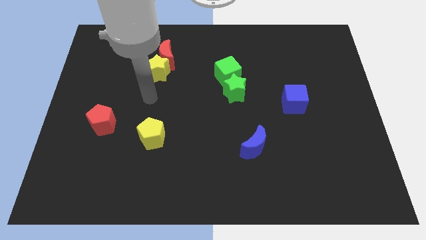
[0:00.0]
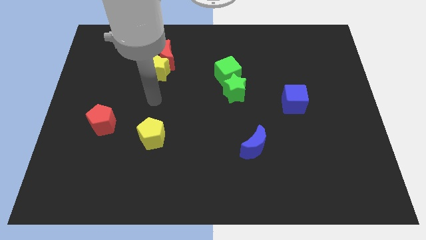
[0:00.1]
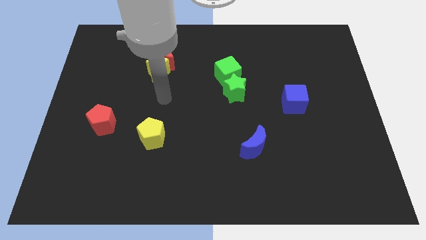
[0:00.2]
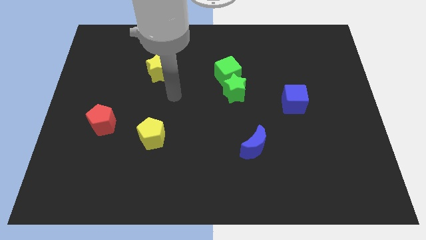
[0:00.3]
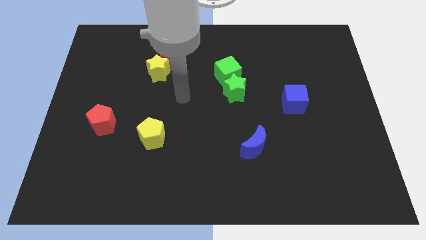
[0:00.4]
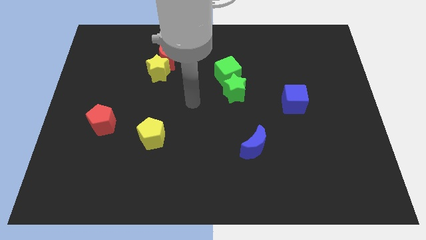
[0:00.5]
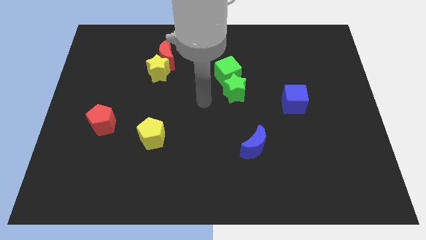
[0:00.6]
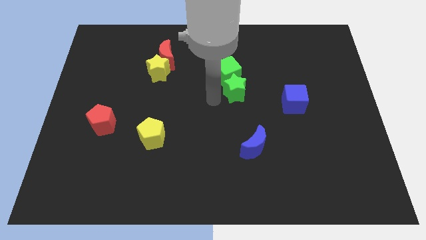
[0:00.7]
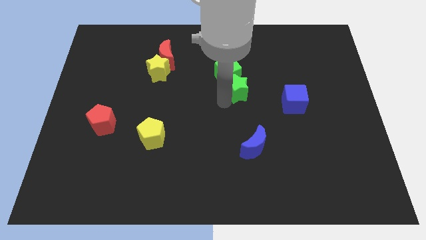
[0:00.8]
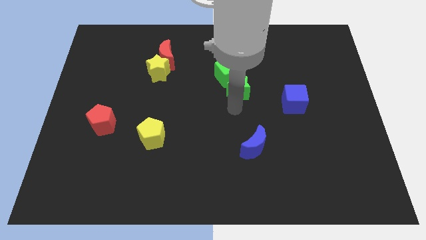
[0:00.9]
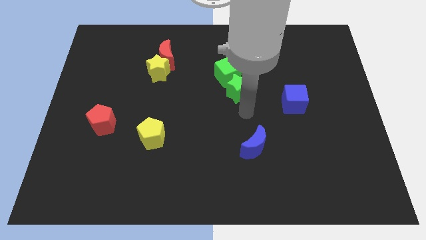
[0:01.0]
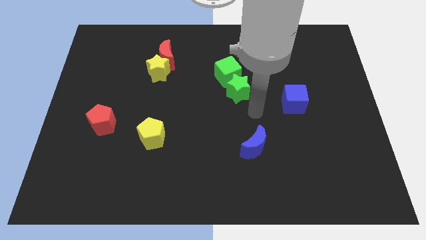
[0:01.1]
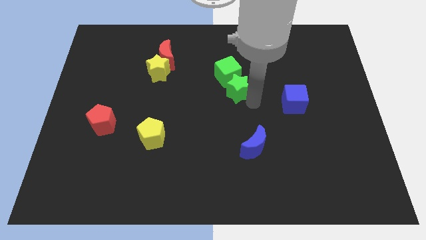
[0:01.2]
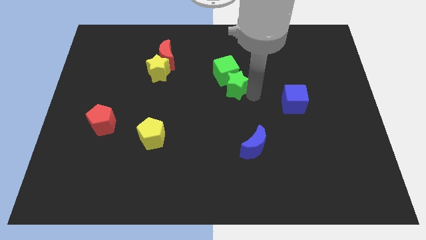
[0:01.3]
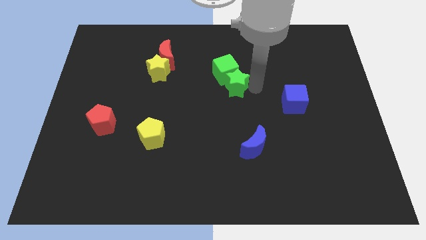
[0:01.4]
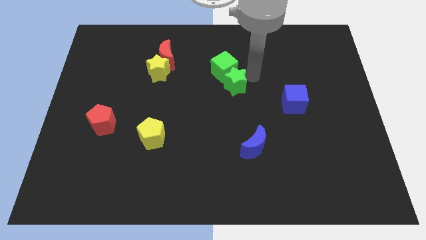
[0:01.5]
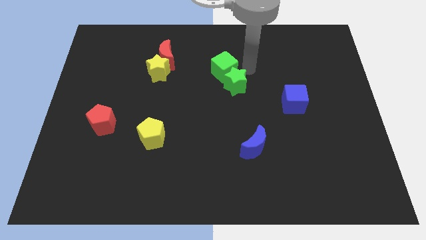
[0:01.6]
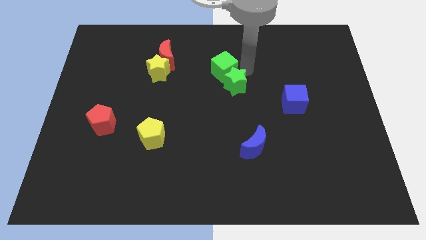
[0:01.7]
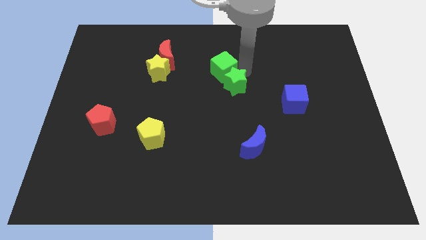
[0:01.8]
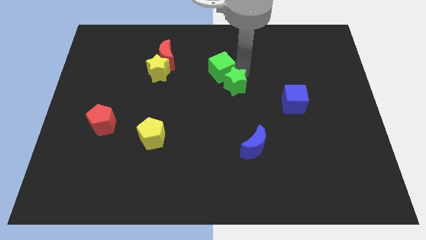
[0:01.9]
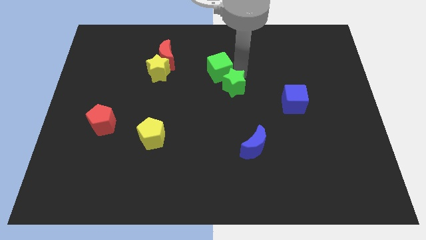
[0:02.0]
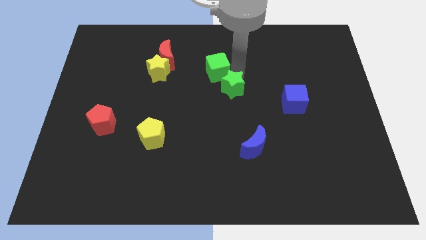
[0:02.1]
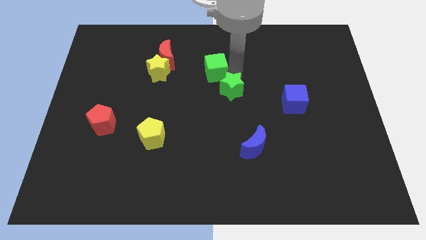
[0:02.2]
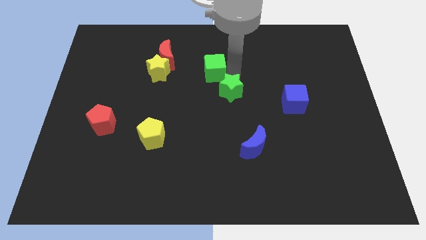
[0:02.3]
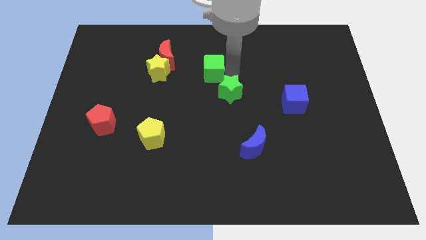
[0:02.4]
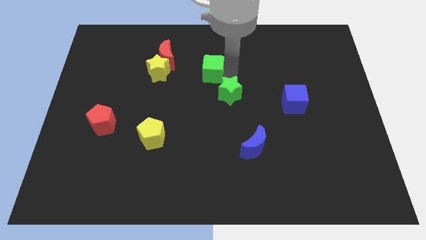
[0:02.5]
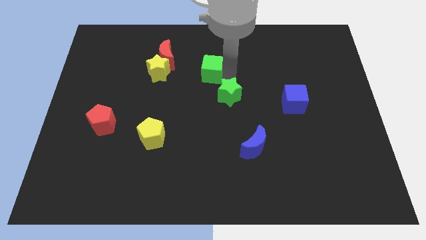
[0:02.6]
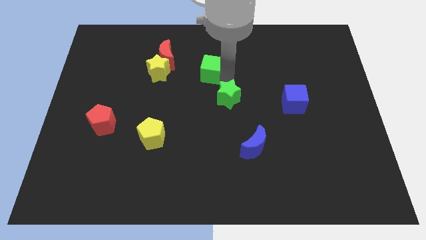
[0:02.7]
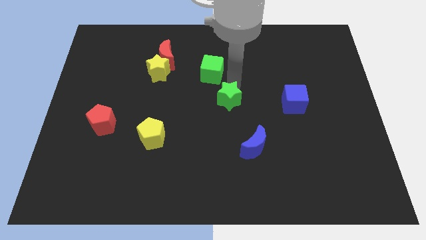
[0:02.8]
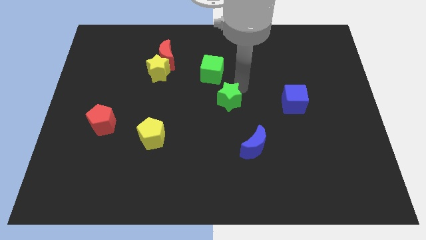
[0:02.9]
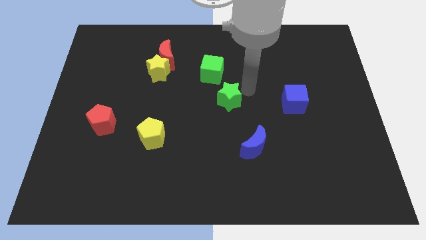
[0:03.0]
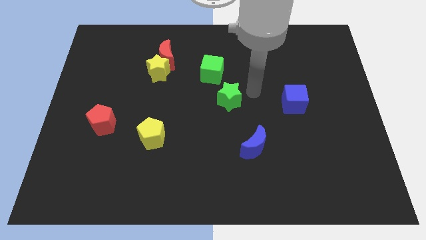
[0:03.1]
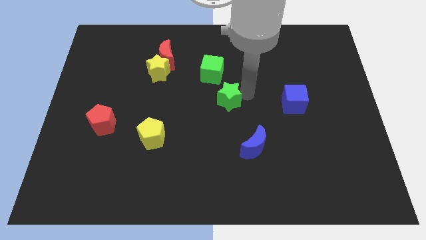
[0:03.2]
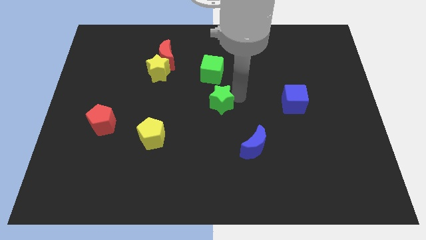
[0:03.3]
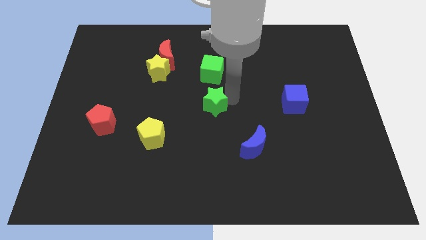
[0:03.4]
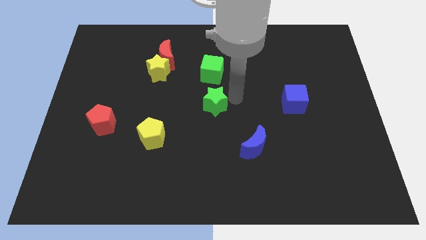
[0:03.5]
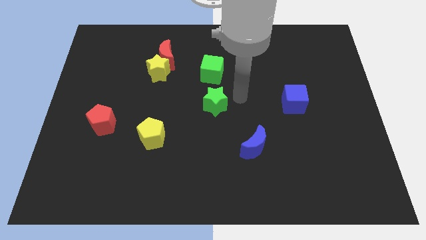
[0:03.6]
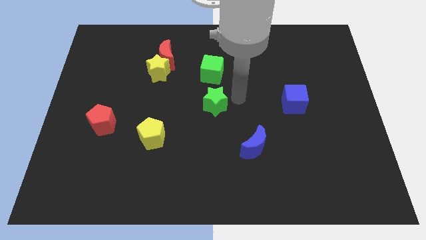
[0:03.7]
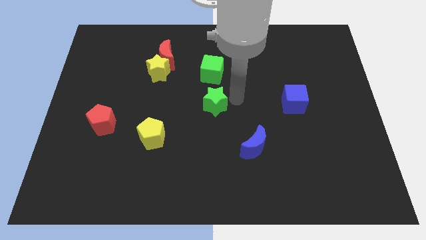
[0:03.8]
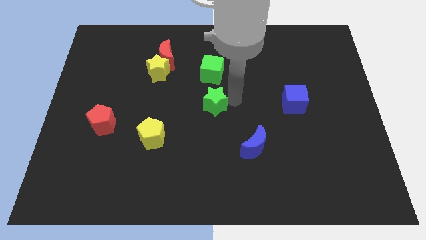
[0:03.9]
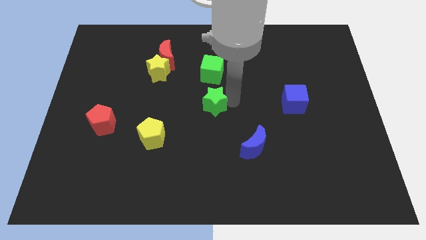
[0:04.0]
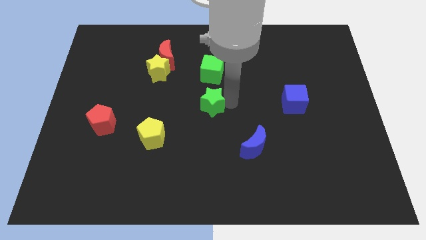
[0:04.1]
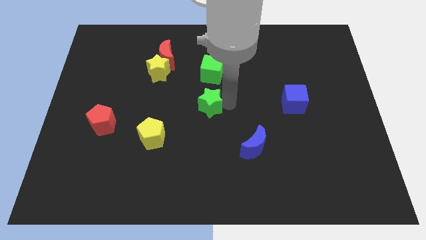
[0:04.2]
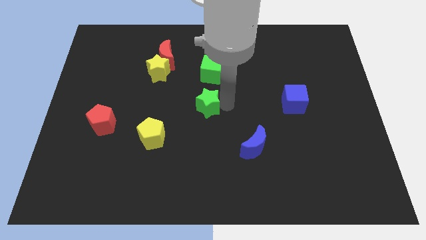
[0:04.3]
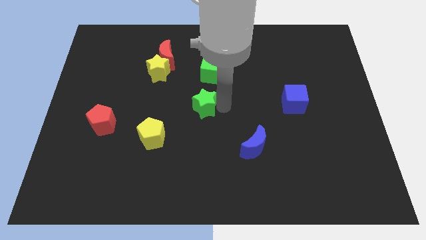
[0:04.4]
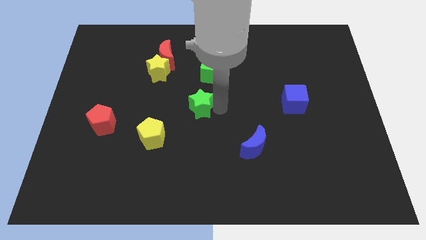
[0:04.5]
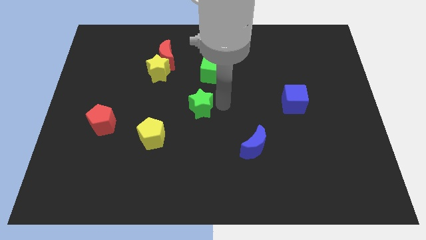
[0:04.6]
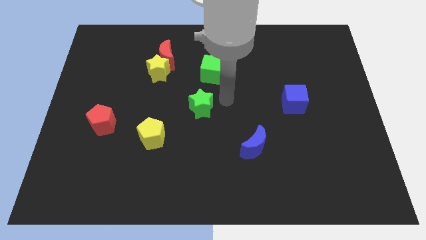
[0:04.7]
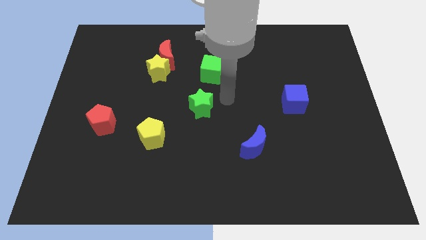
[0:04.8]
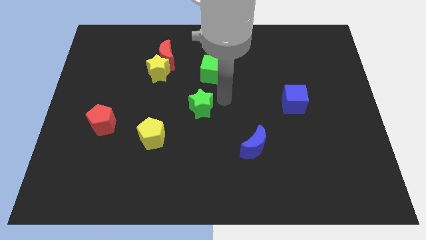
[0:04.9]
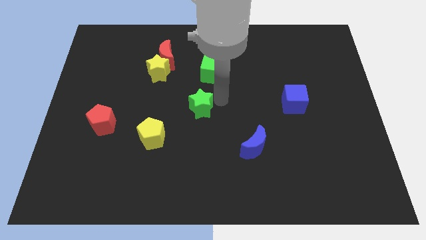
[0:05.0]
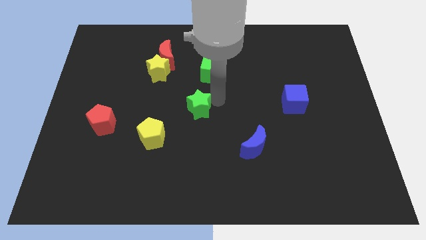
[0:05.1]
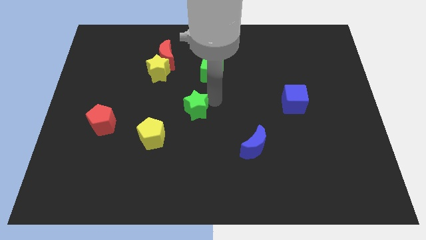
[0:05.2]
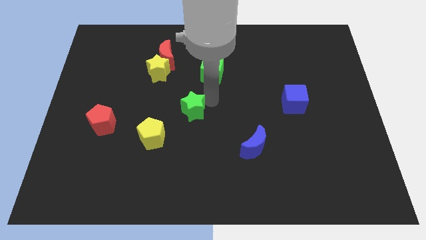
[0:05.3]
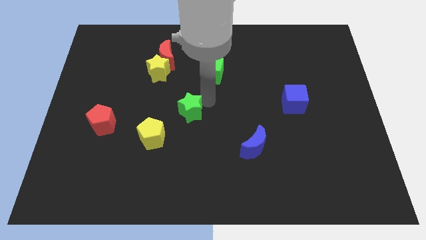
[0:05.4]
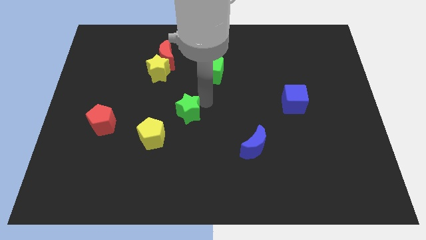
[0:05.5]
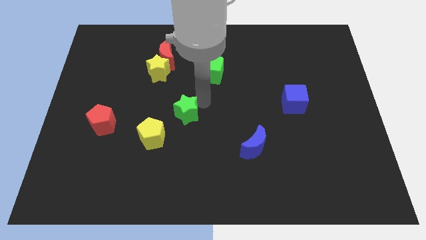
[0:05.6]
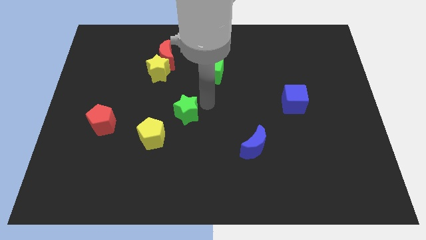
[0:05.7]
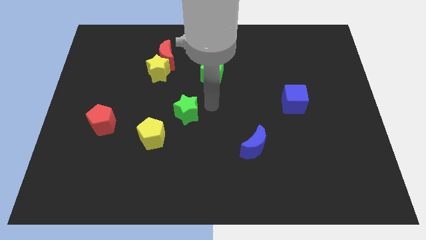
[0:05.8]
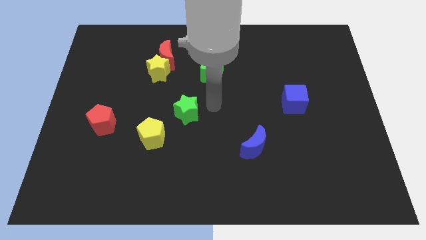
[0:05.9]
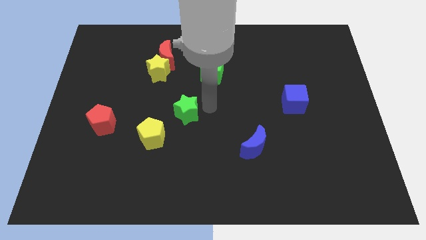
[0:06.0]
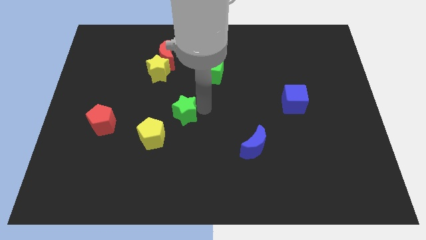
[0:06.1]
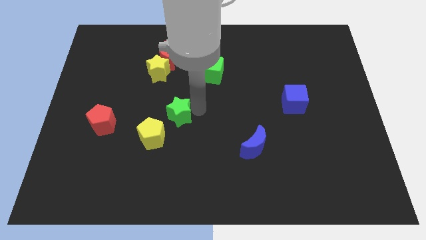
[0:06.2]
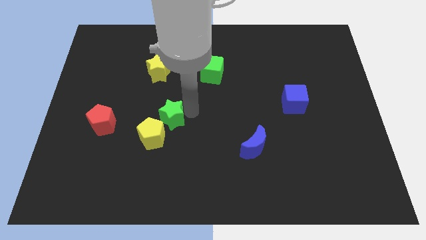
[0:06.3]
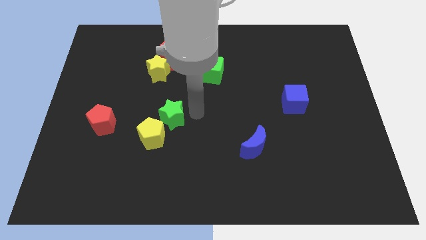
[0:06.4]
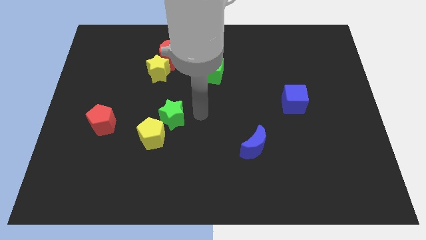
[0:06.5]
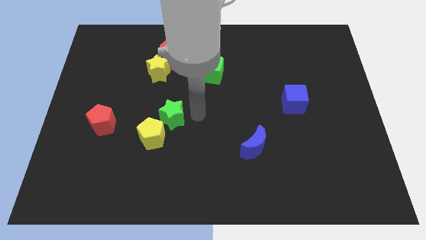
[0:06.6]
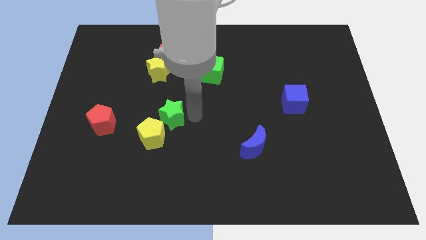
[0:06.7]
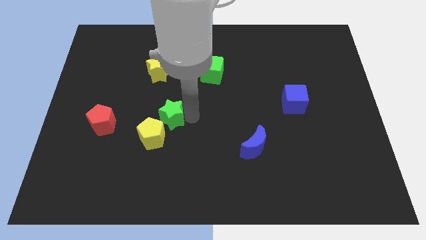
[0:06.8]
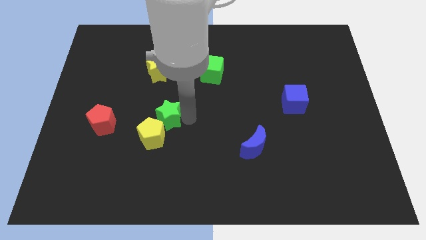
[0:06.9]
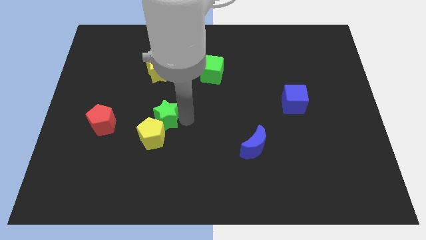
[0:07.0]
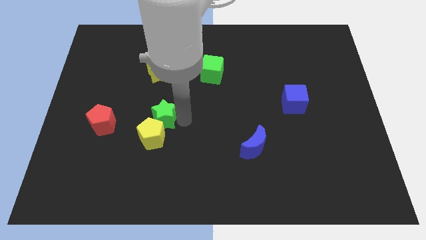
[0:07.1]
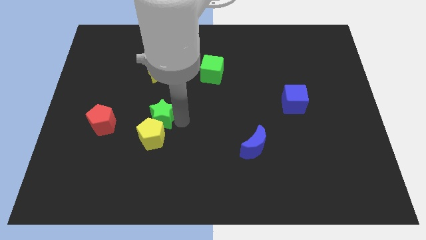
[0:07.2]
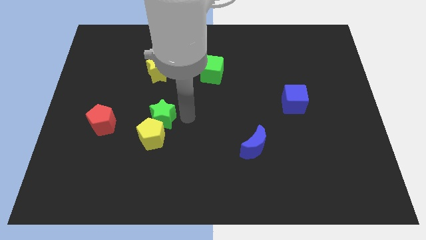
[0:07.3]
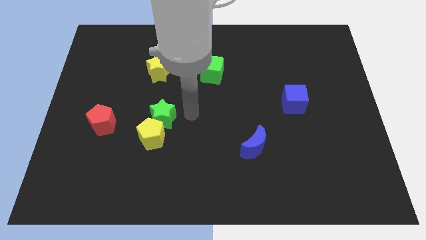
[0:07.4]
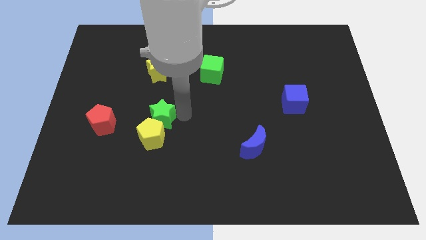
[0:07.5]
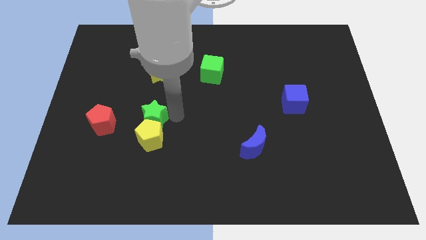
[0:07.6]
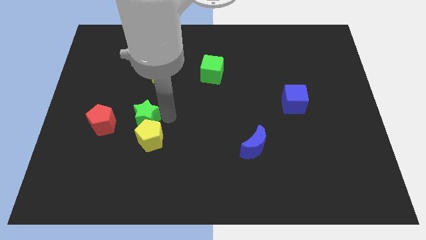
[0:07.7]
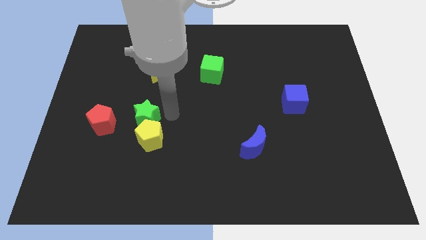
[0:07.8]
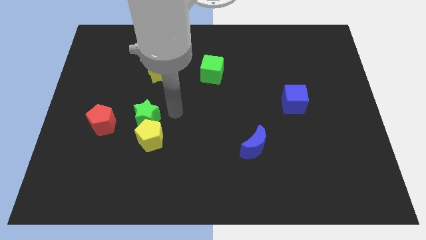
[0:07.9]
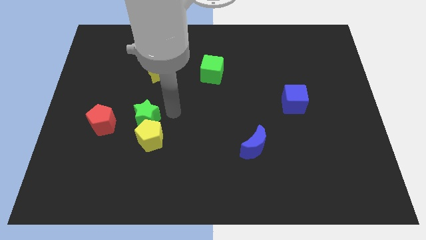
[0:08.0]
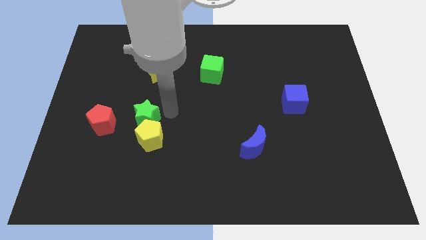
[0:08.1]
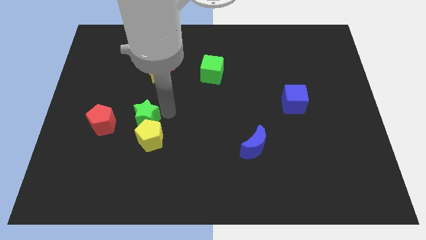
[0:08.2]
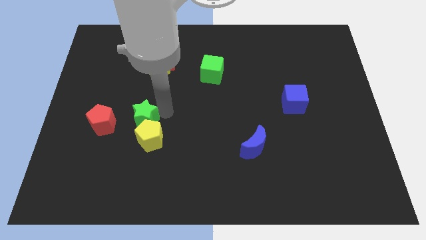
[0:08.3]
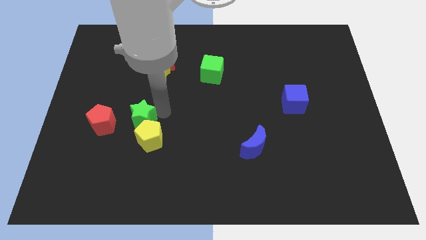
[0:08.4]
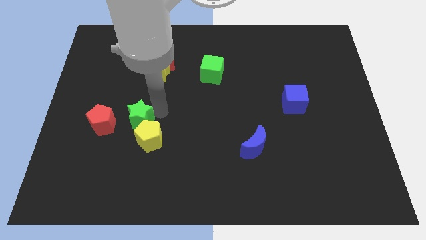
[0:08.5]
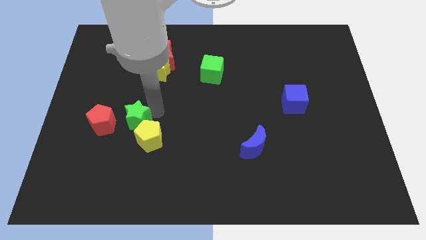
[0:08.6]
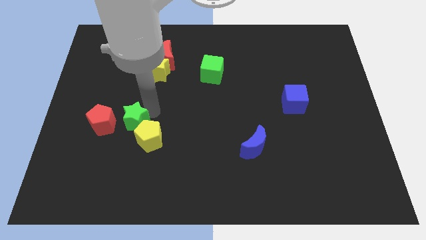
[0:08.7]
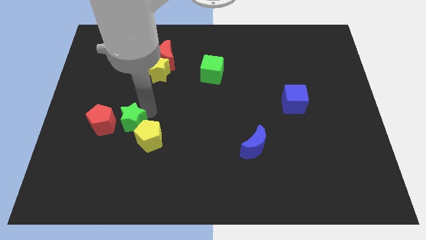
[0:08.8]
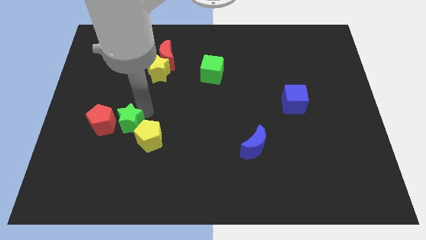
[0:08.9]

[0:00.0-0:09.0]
slide the green star towards the red pentagon
